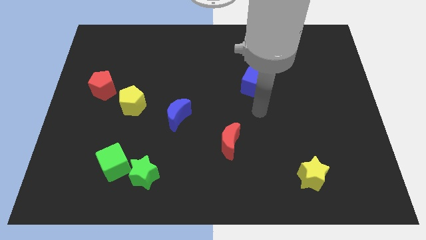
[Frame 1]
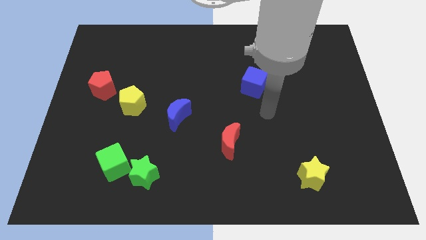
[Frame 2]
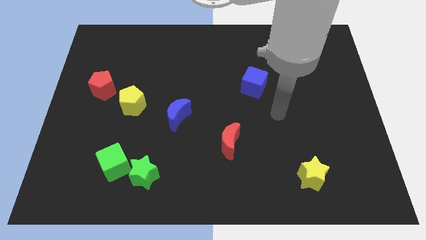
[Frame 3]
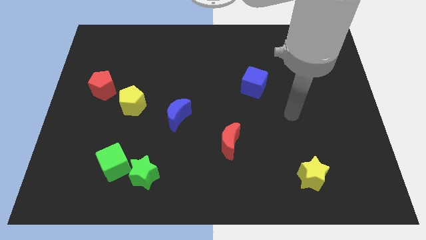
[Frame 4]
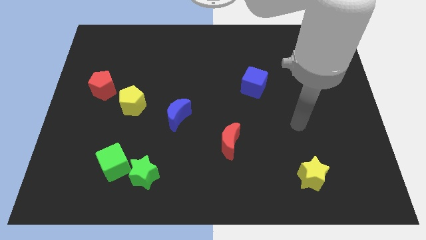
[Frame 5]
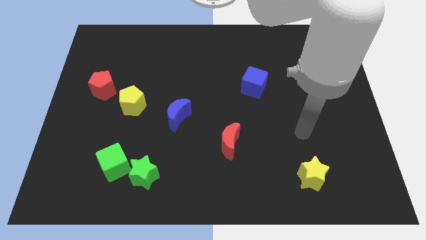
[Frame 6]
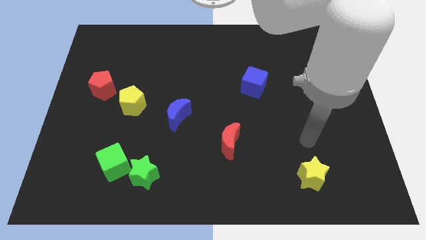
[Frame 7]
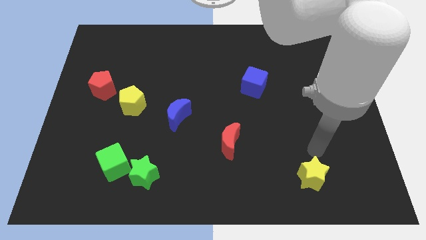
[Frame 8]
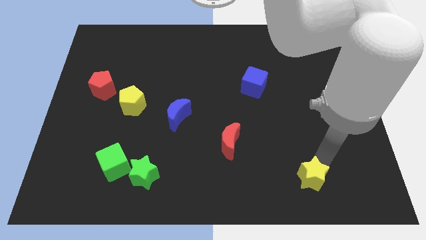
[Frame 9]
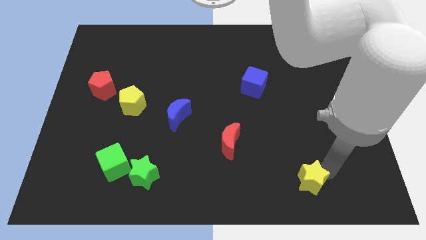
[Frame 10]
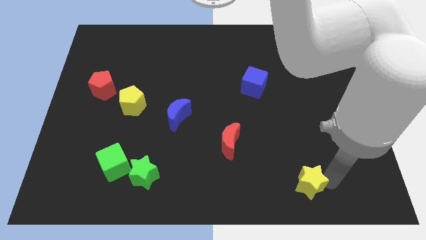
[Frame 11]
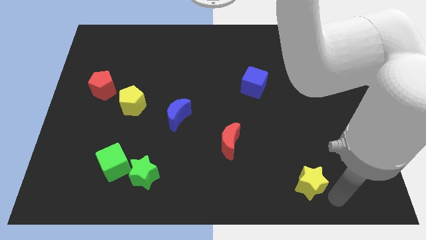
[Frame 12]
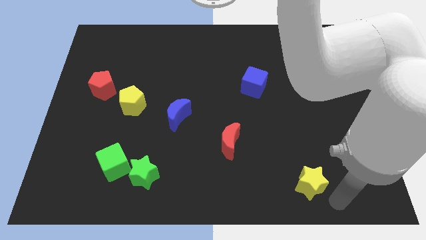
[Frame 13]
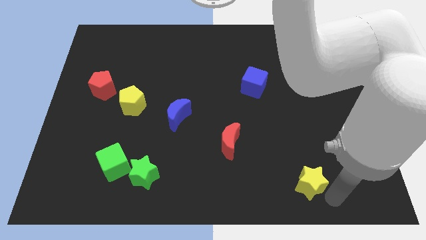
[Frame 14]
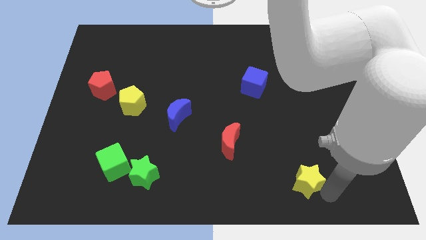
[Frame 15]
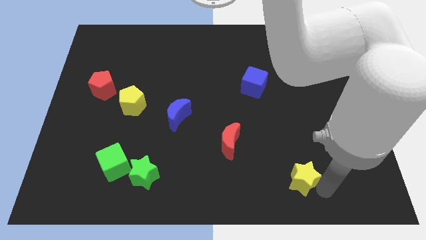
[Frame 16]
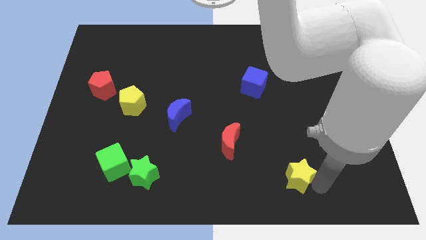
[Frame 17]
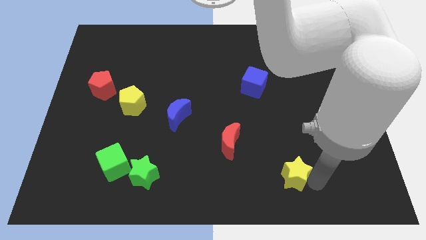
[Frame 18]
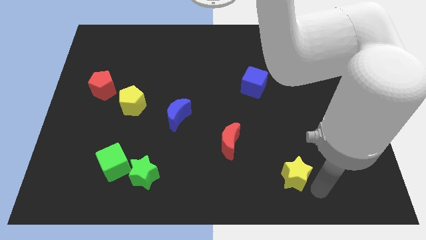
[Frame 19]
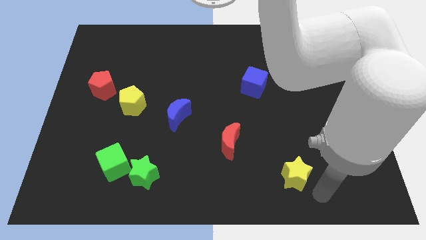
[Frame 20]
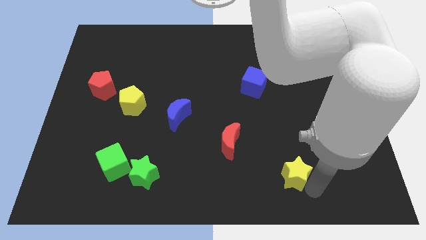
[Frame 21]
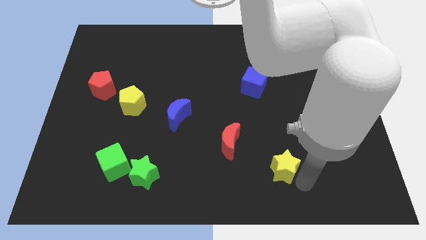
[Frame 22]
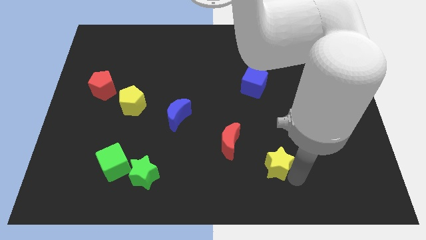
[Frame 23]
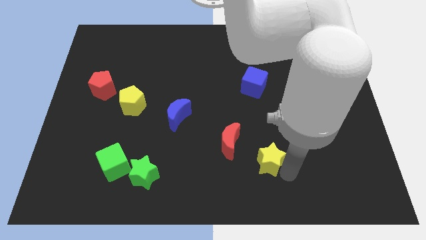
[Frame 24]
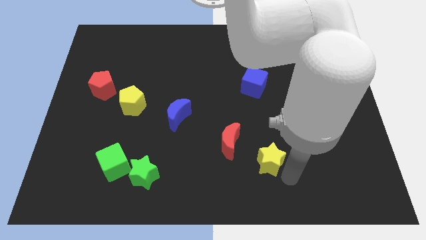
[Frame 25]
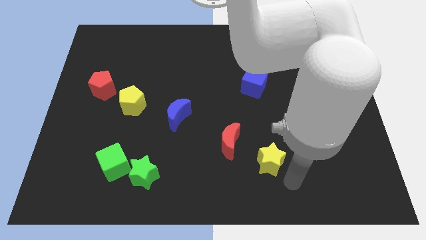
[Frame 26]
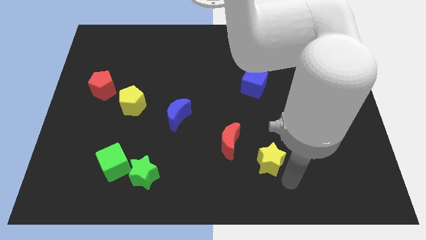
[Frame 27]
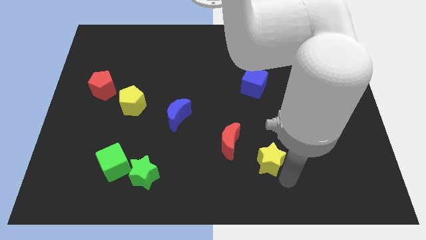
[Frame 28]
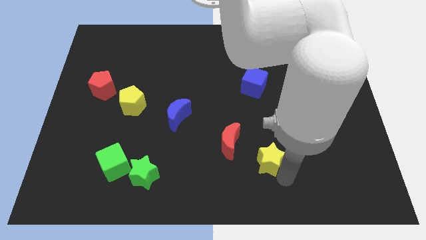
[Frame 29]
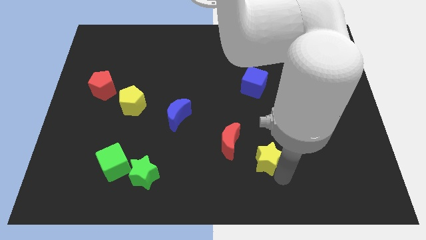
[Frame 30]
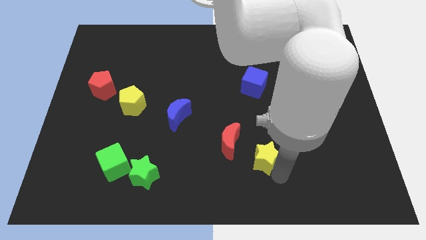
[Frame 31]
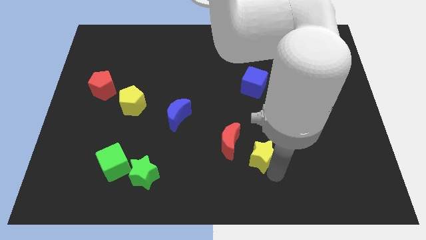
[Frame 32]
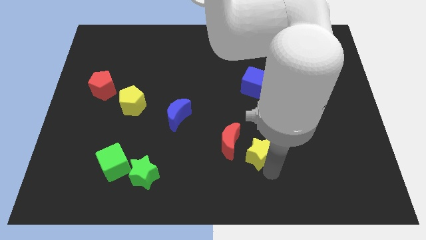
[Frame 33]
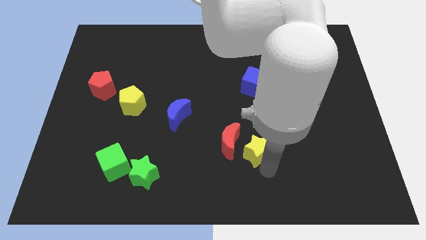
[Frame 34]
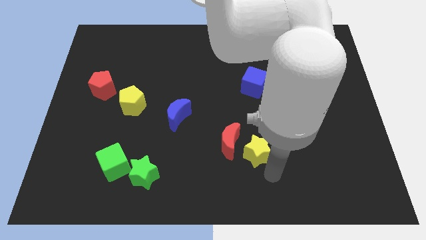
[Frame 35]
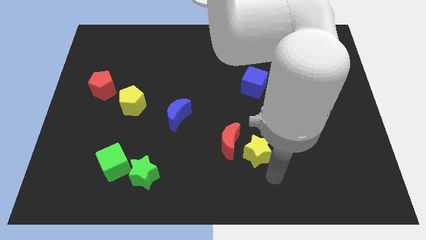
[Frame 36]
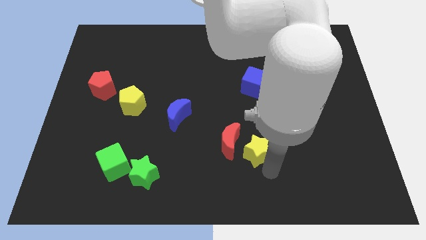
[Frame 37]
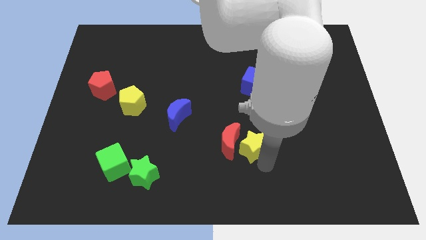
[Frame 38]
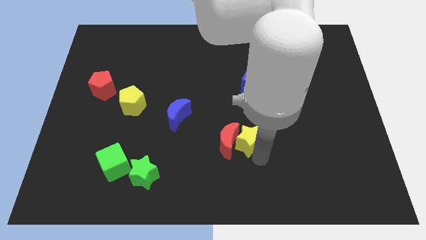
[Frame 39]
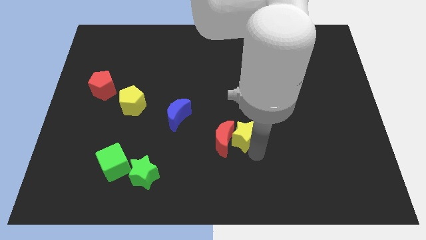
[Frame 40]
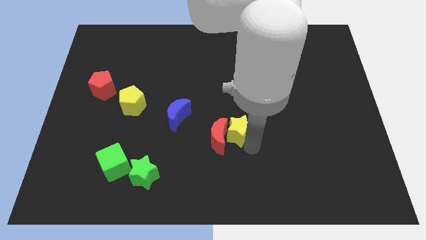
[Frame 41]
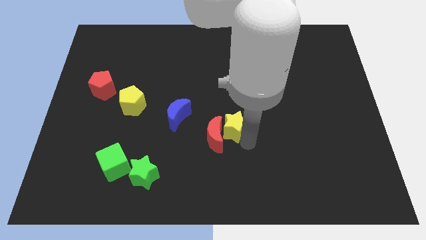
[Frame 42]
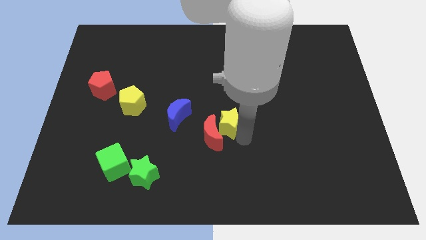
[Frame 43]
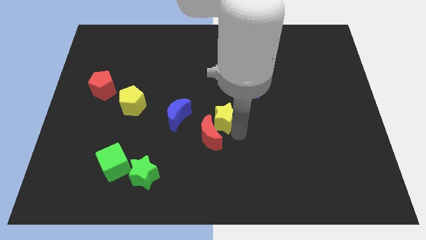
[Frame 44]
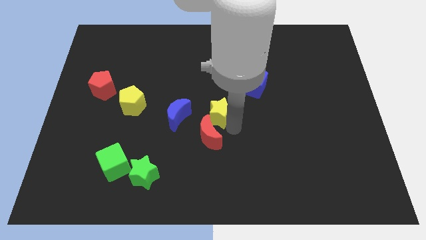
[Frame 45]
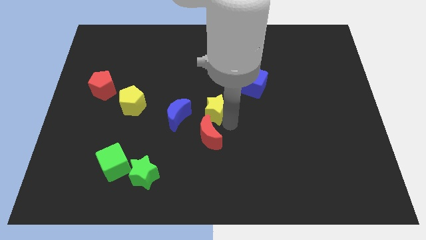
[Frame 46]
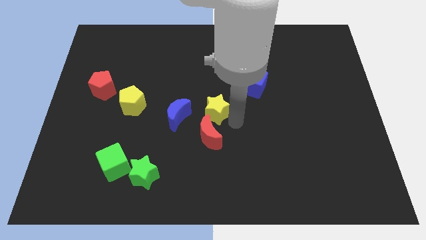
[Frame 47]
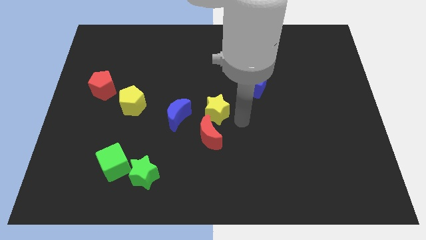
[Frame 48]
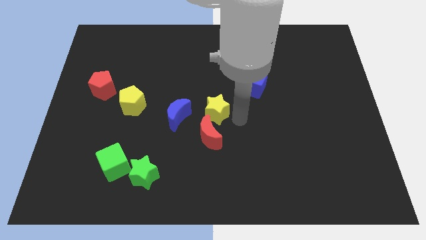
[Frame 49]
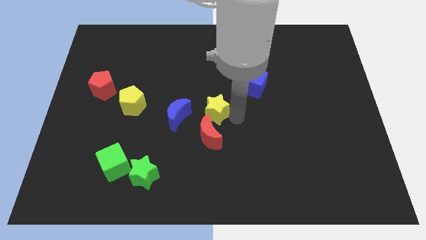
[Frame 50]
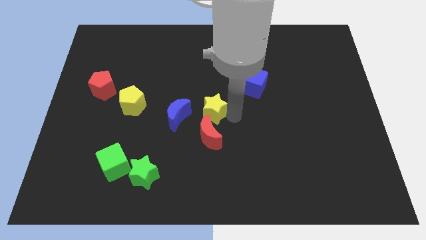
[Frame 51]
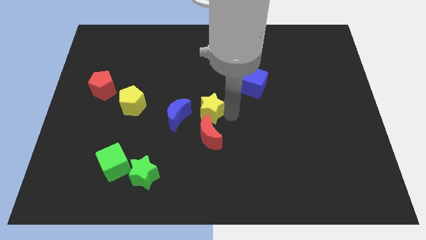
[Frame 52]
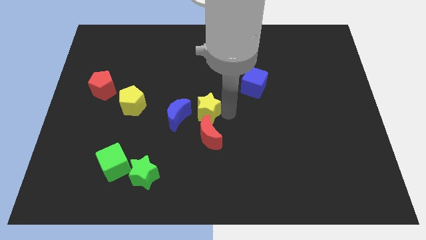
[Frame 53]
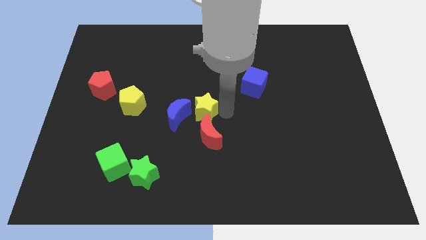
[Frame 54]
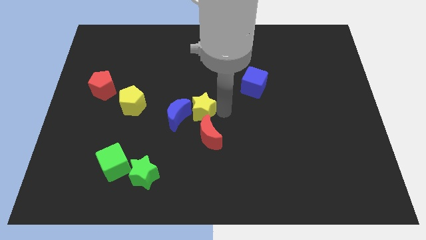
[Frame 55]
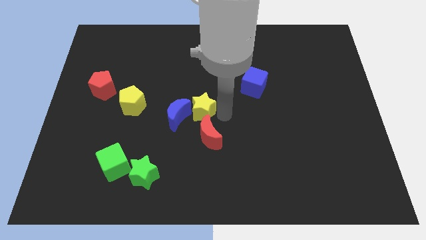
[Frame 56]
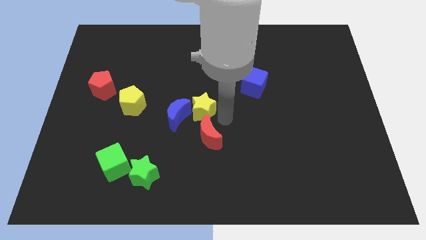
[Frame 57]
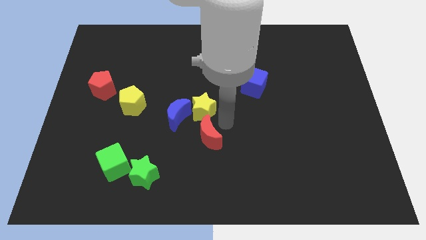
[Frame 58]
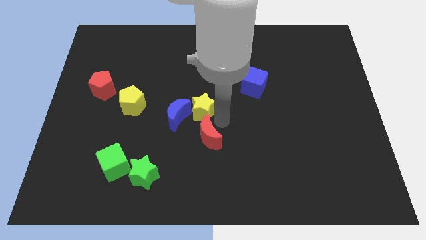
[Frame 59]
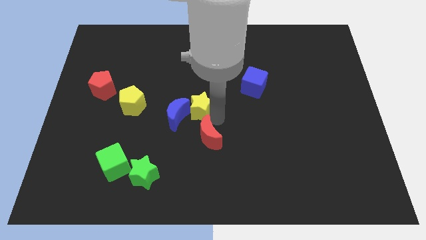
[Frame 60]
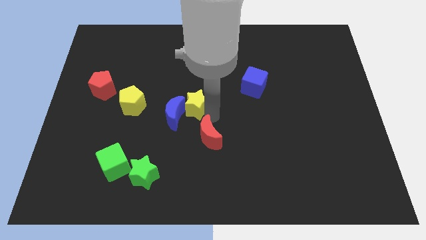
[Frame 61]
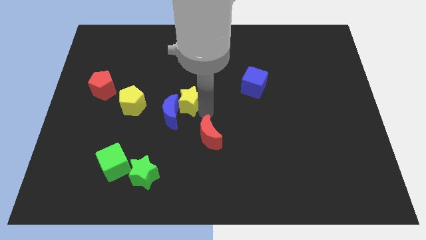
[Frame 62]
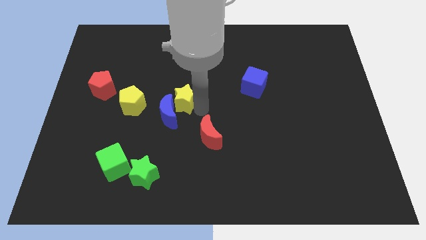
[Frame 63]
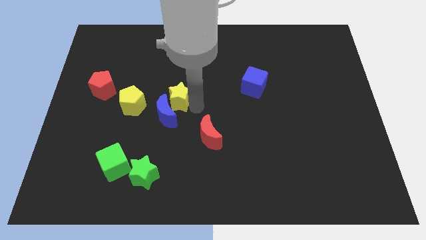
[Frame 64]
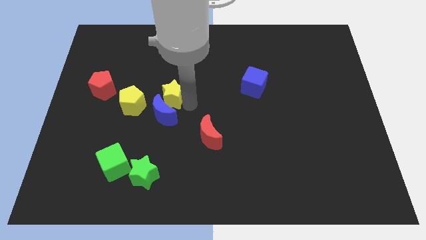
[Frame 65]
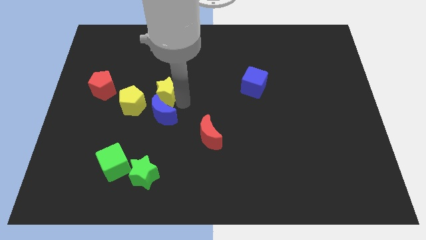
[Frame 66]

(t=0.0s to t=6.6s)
move the yellow star diagonally up and to the right of the yellow pentagon
